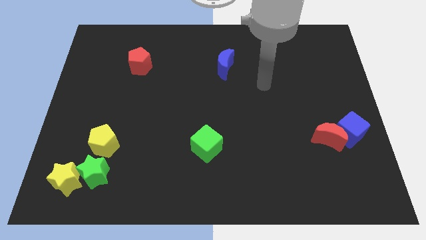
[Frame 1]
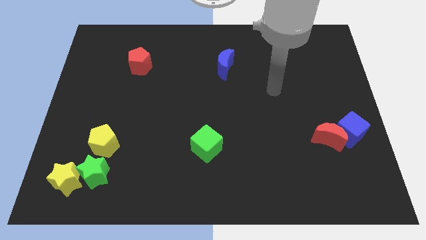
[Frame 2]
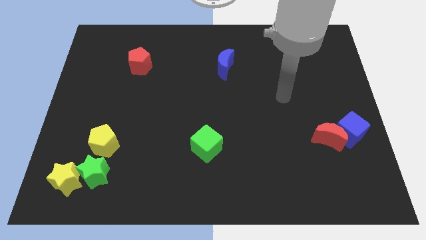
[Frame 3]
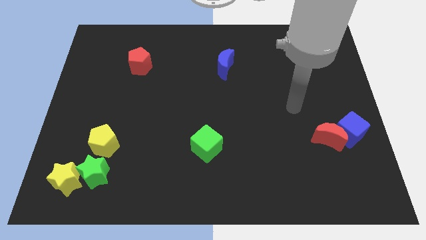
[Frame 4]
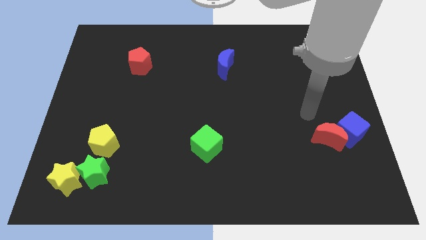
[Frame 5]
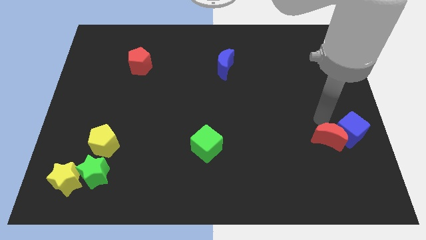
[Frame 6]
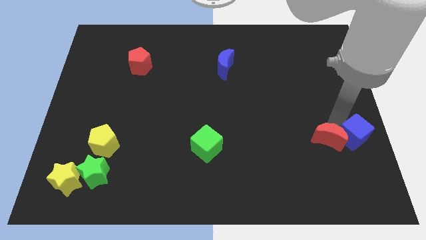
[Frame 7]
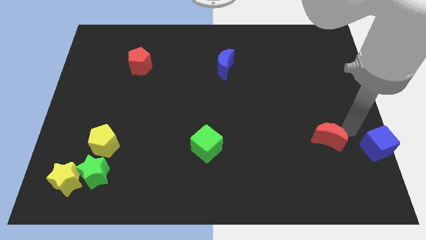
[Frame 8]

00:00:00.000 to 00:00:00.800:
move the red moon away from the blue cube

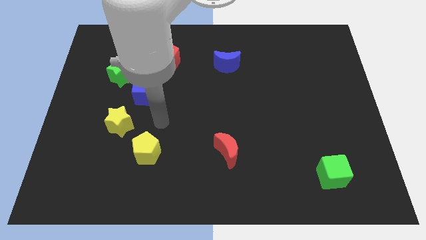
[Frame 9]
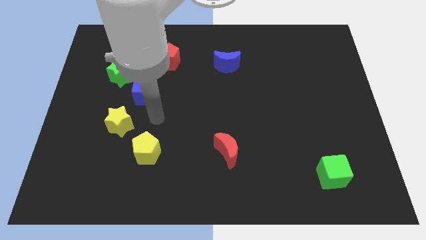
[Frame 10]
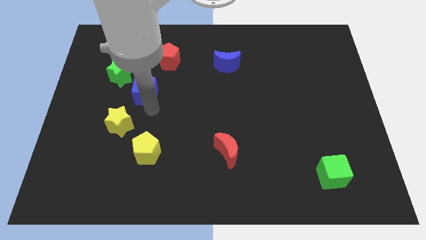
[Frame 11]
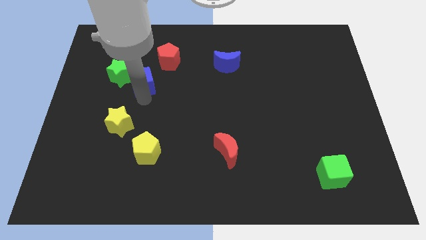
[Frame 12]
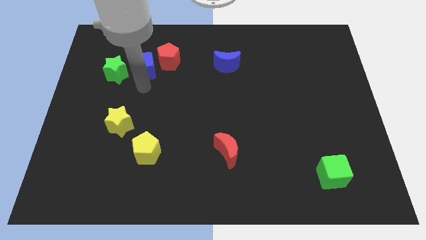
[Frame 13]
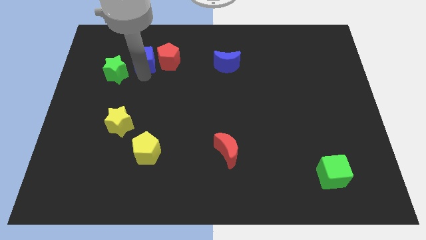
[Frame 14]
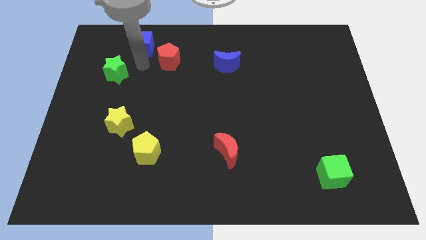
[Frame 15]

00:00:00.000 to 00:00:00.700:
pull the green star apart from the blue cube

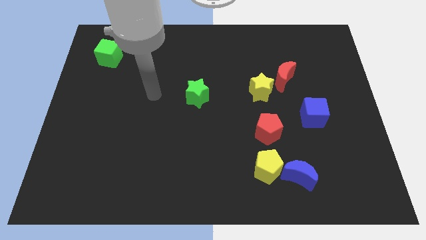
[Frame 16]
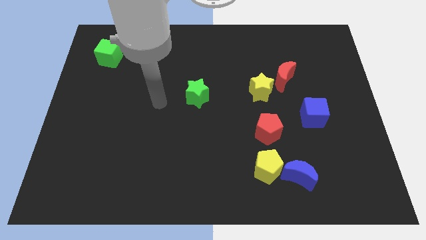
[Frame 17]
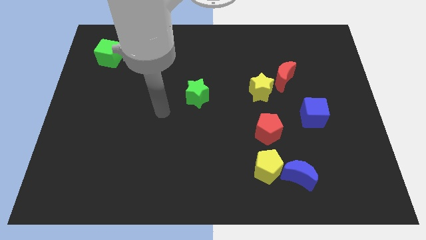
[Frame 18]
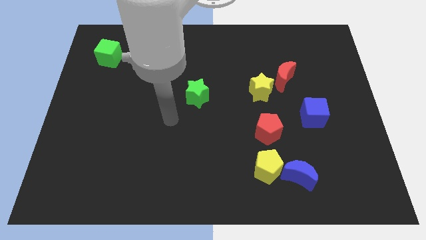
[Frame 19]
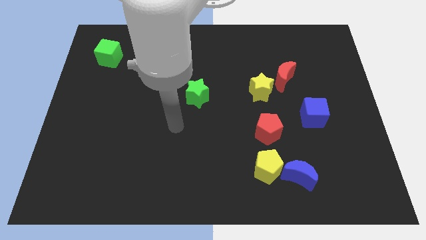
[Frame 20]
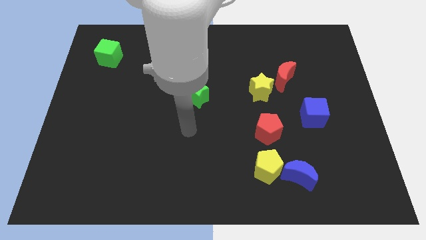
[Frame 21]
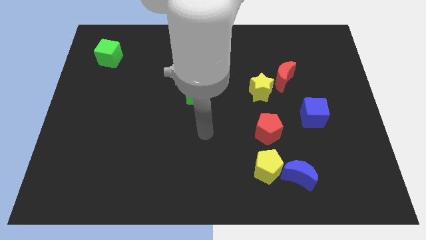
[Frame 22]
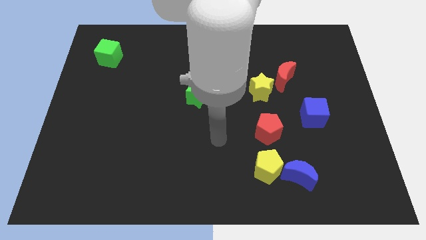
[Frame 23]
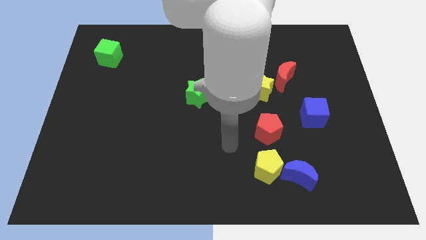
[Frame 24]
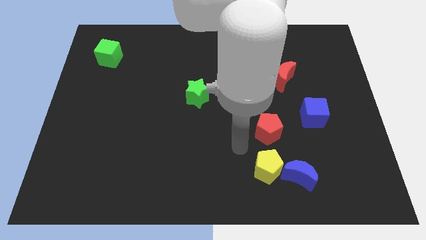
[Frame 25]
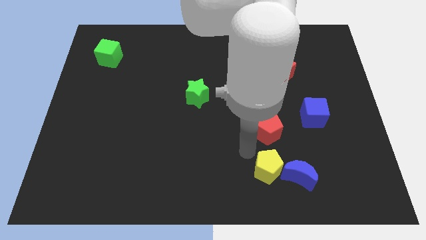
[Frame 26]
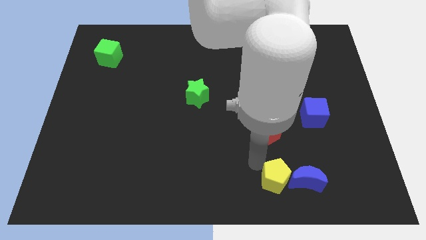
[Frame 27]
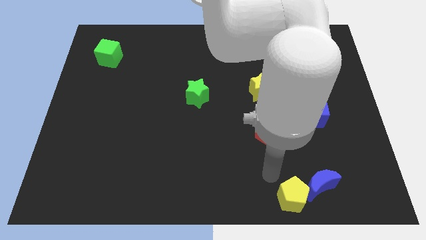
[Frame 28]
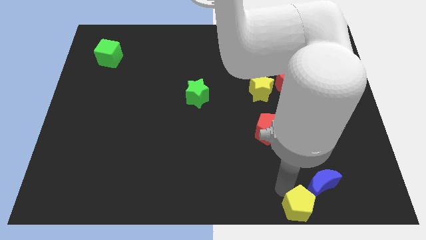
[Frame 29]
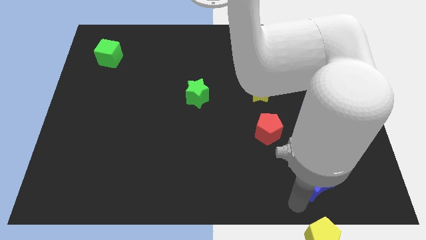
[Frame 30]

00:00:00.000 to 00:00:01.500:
move the blue moon away from the yellow pentagon

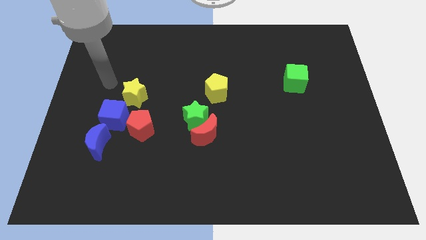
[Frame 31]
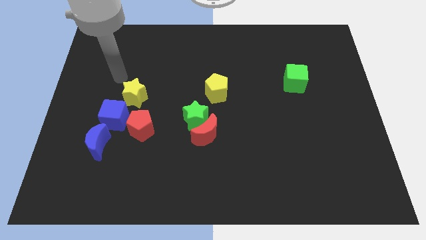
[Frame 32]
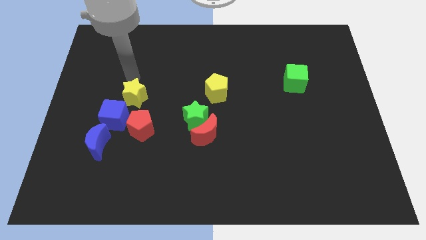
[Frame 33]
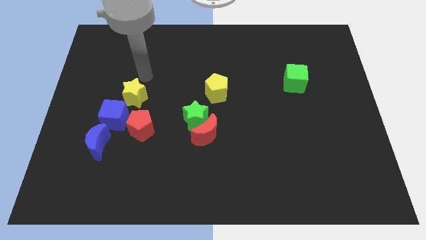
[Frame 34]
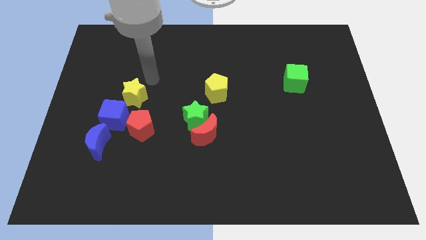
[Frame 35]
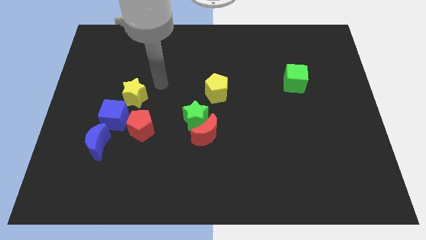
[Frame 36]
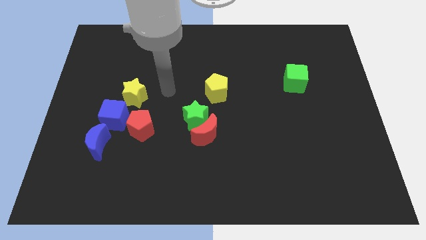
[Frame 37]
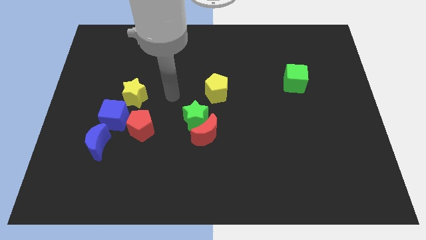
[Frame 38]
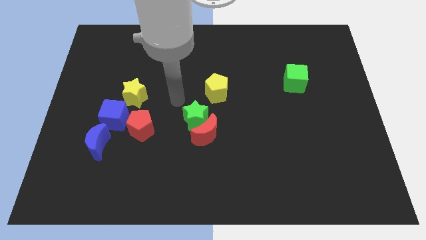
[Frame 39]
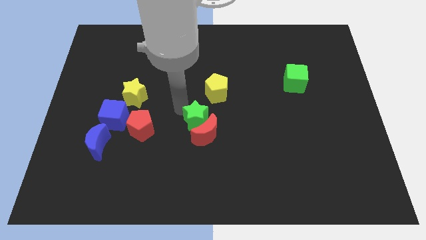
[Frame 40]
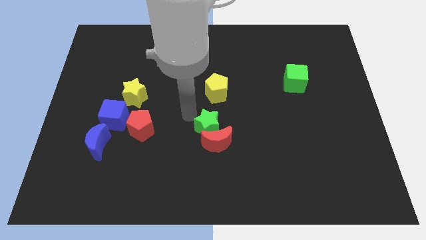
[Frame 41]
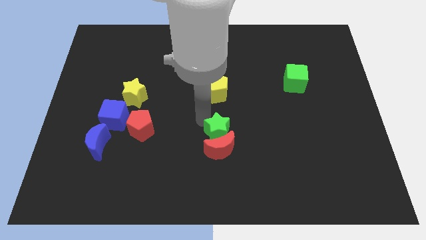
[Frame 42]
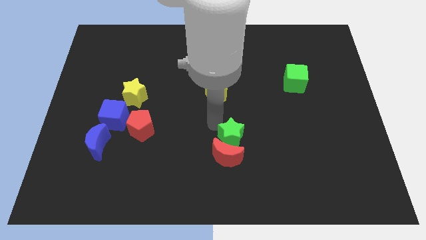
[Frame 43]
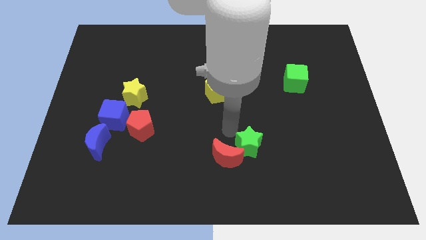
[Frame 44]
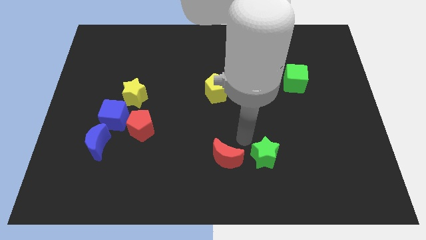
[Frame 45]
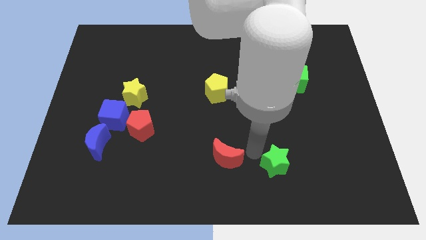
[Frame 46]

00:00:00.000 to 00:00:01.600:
separate the red moon from the green star

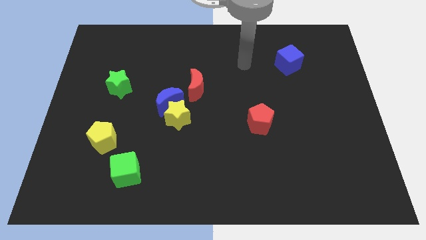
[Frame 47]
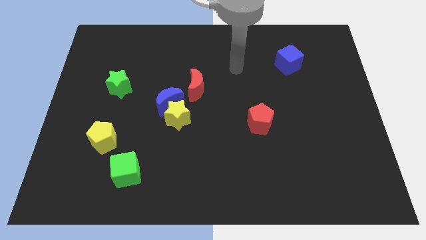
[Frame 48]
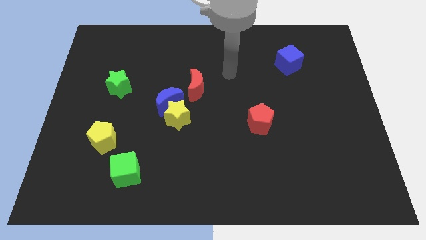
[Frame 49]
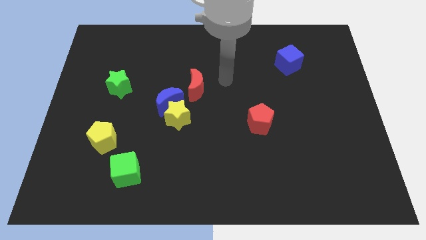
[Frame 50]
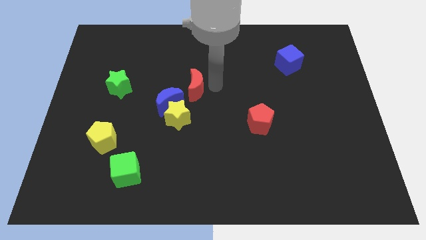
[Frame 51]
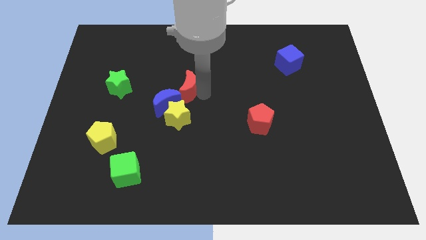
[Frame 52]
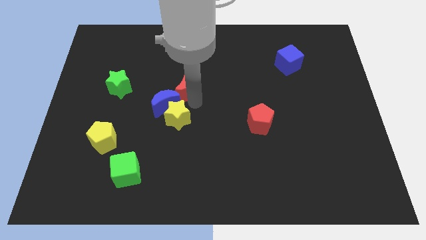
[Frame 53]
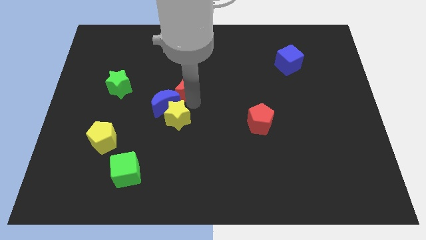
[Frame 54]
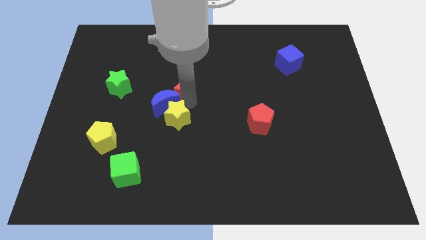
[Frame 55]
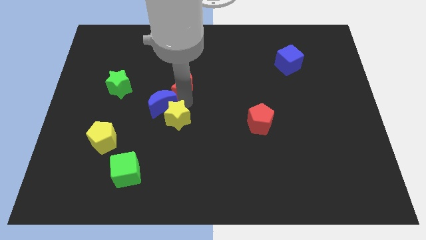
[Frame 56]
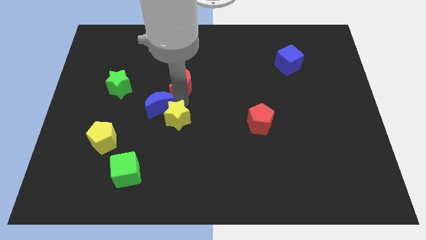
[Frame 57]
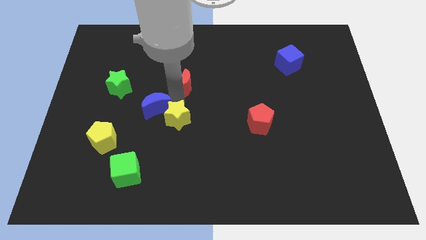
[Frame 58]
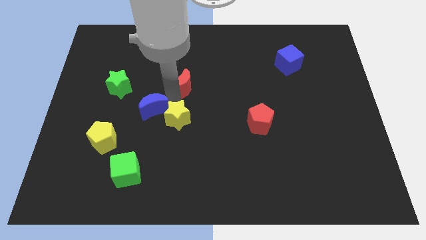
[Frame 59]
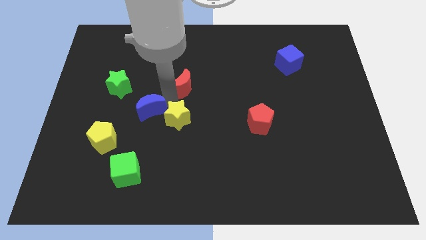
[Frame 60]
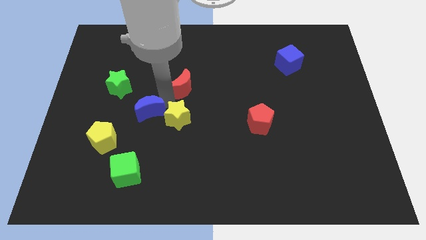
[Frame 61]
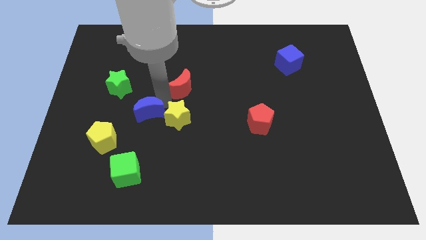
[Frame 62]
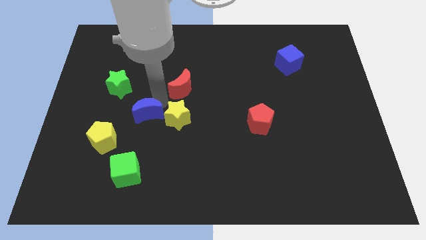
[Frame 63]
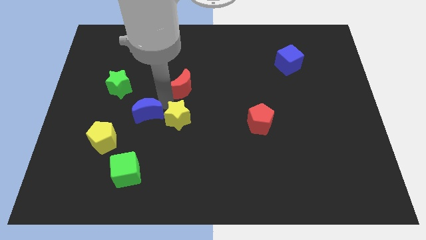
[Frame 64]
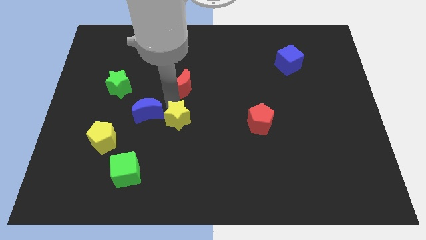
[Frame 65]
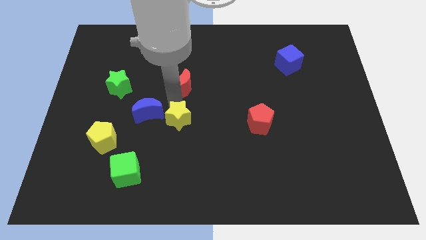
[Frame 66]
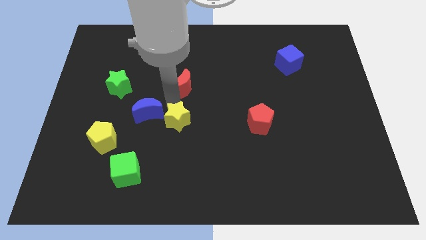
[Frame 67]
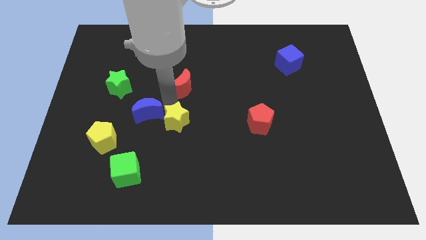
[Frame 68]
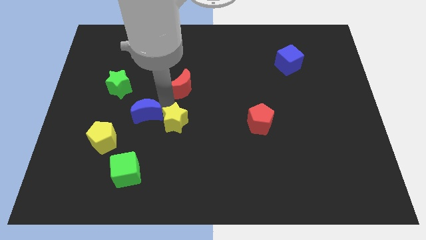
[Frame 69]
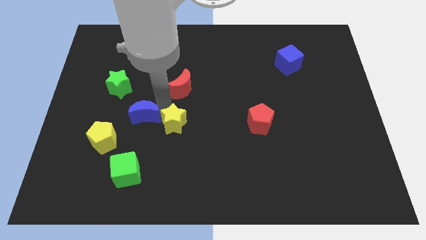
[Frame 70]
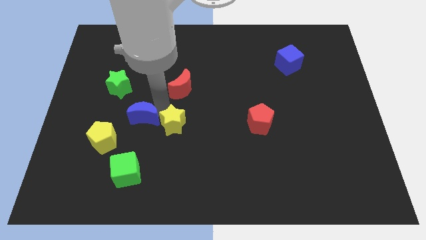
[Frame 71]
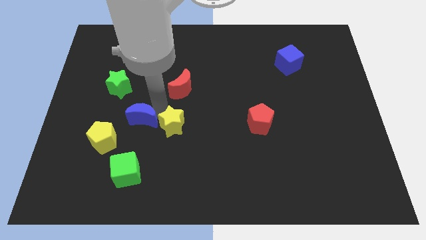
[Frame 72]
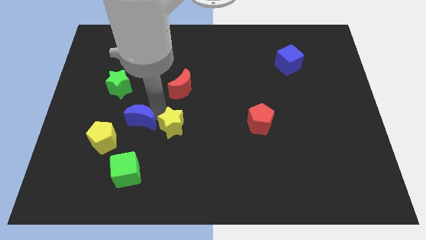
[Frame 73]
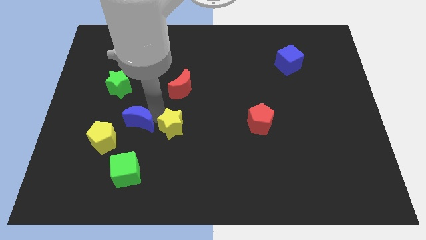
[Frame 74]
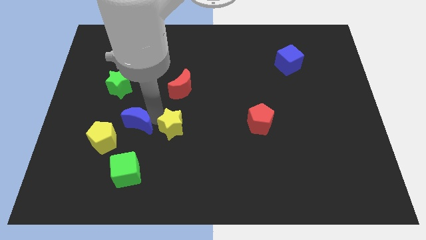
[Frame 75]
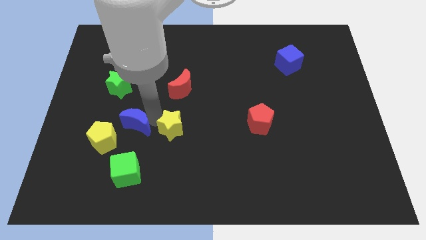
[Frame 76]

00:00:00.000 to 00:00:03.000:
separate the blue moon from the yellow star and red moon

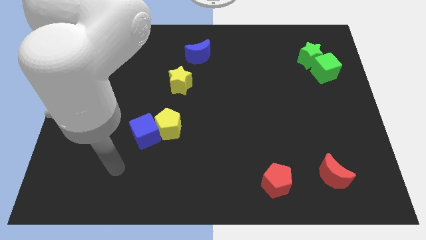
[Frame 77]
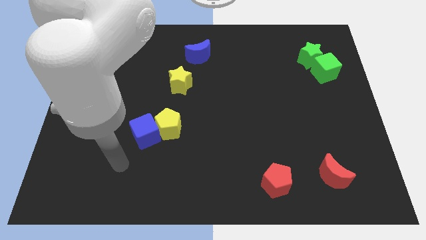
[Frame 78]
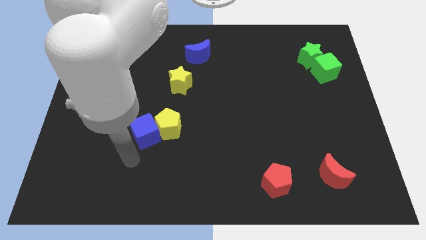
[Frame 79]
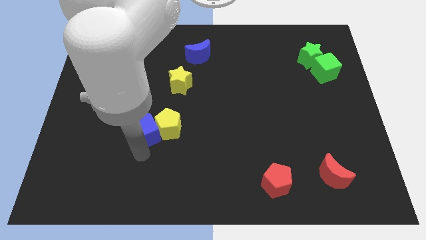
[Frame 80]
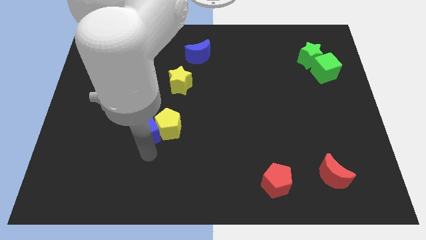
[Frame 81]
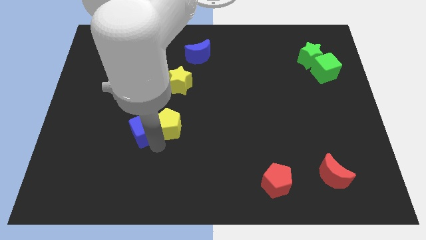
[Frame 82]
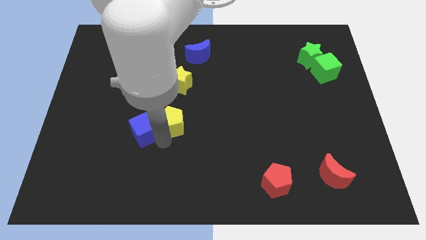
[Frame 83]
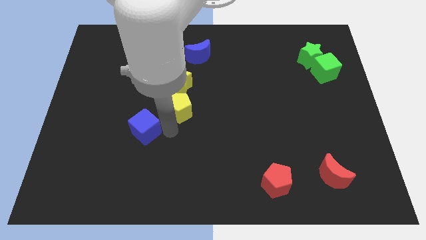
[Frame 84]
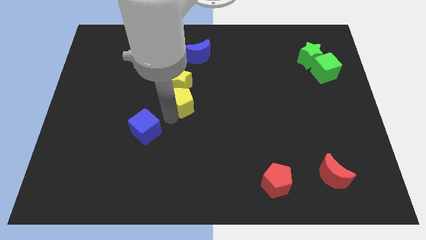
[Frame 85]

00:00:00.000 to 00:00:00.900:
move the blue cube away from the yellow pentagon

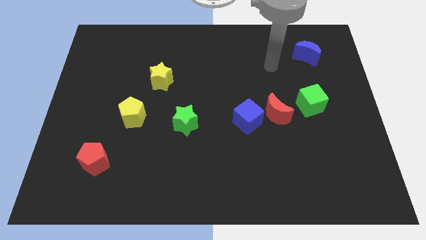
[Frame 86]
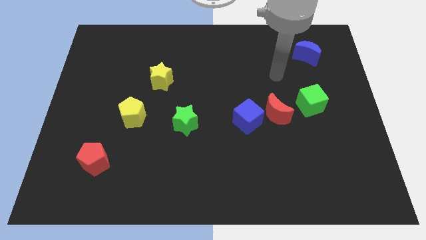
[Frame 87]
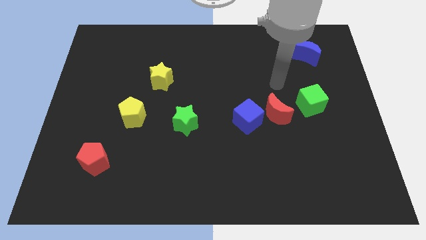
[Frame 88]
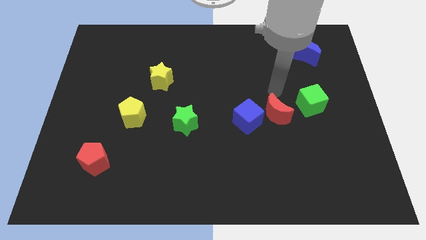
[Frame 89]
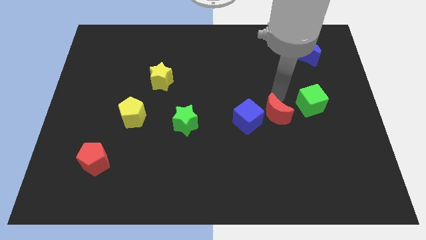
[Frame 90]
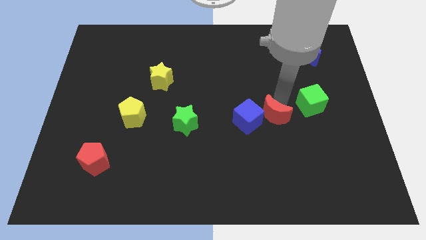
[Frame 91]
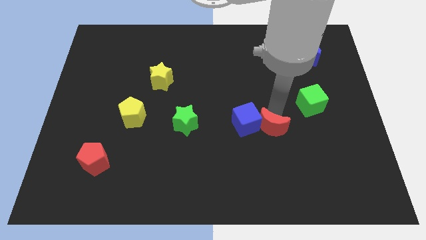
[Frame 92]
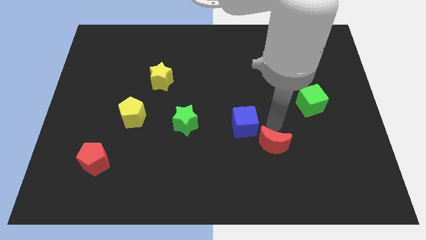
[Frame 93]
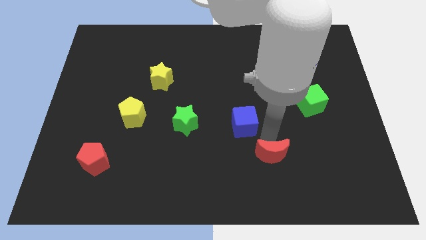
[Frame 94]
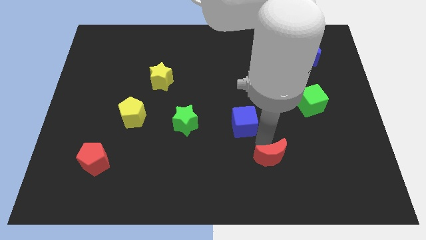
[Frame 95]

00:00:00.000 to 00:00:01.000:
separate the blue cube from the red moon

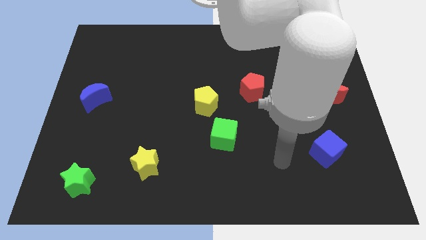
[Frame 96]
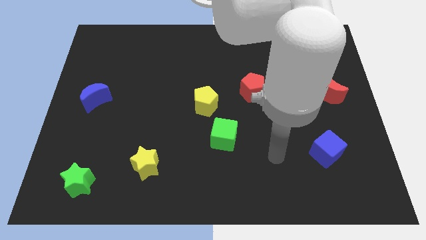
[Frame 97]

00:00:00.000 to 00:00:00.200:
separate the green cube from the yellow pentagon
